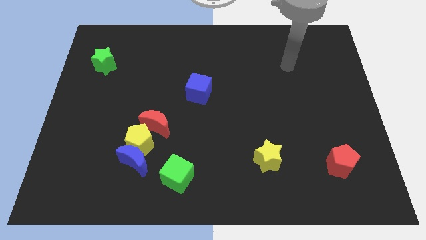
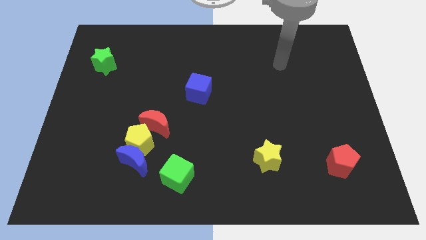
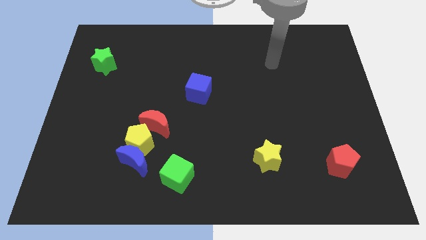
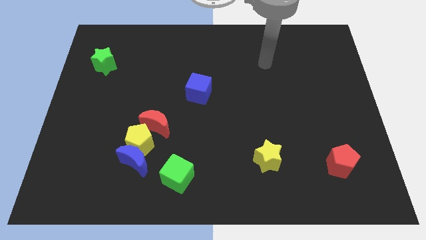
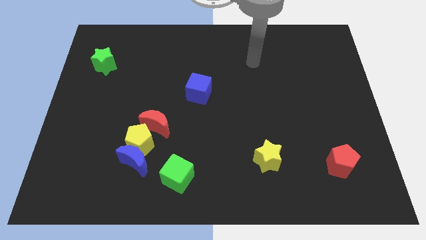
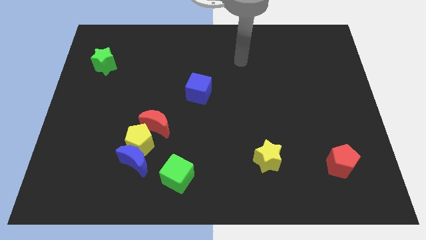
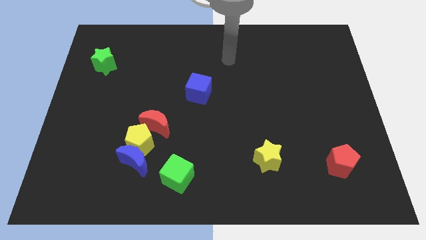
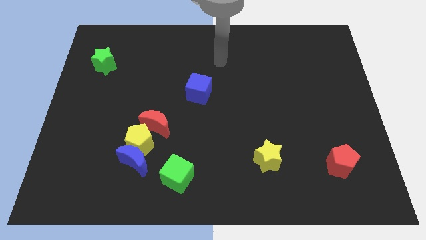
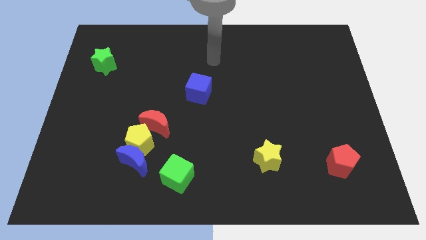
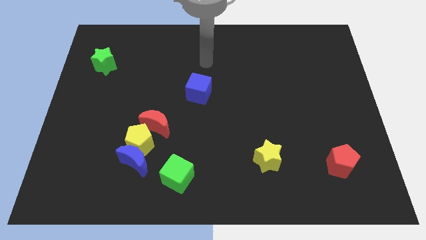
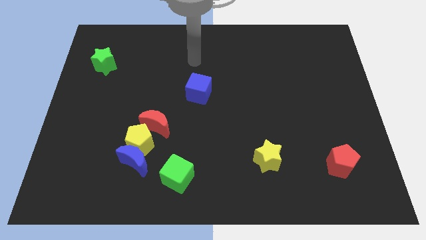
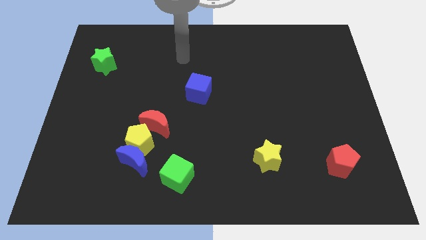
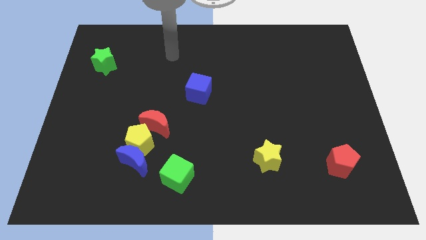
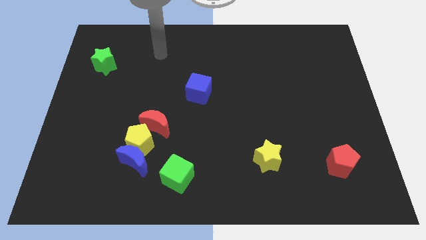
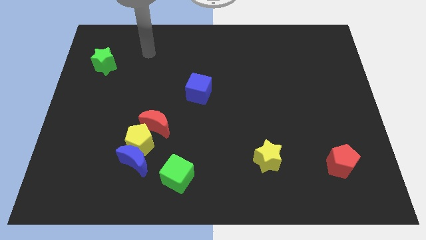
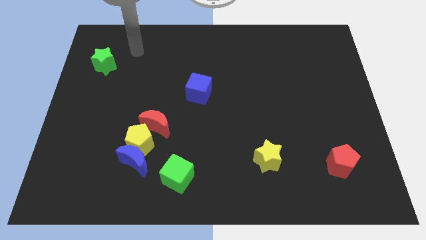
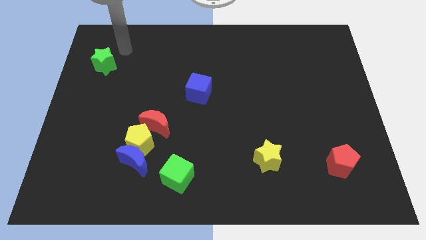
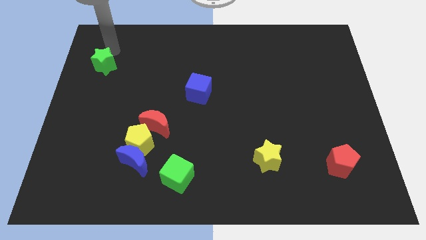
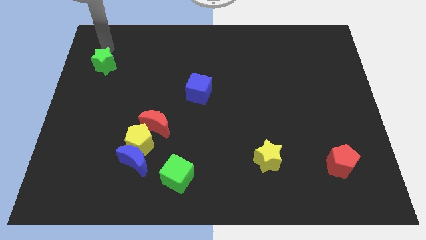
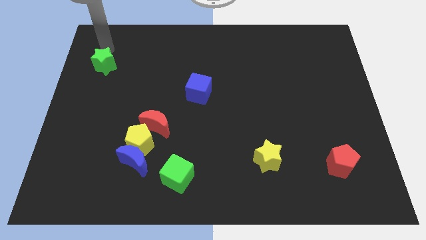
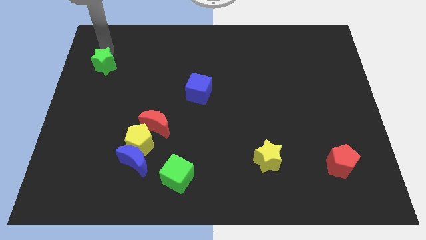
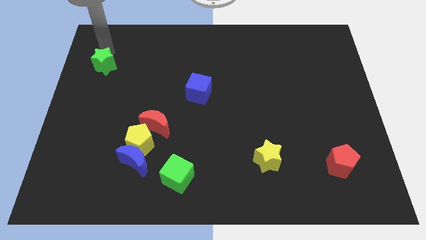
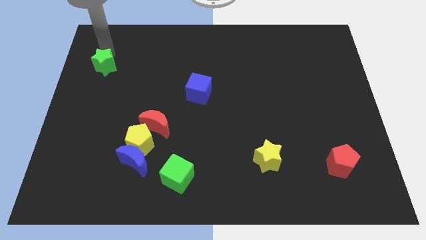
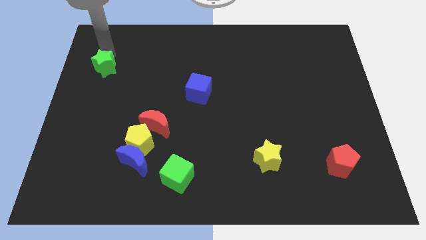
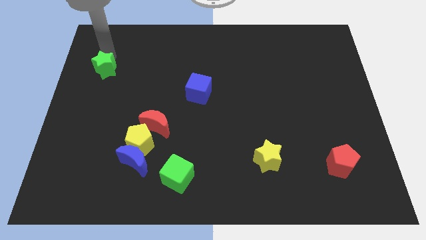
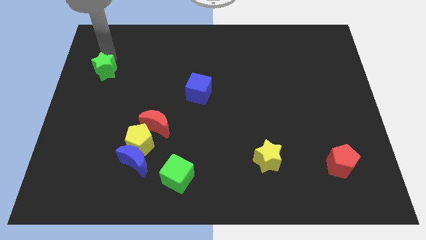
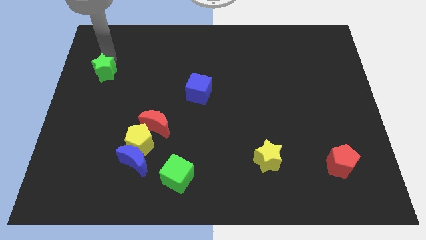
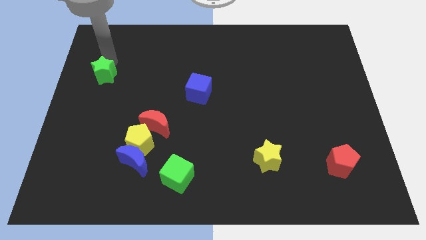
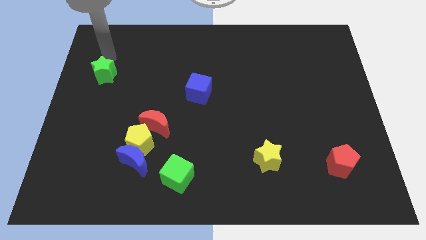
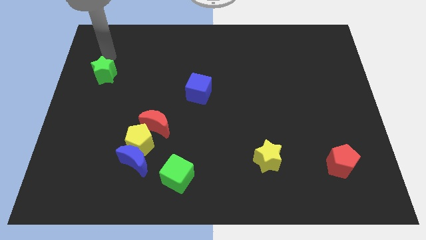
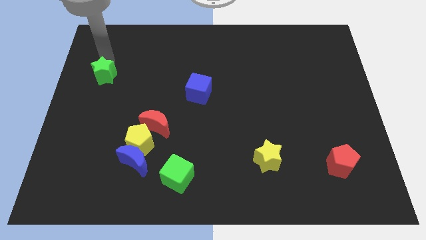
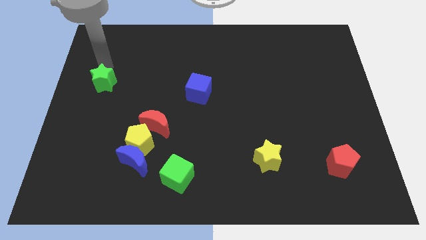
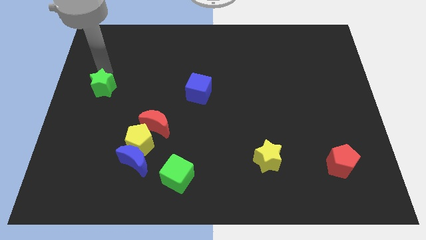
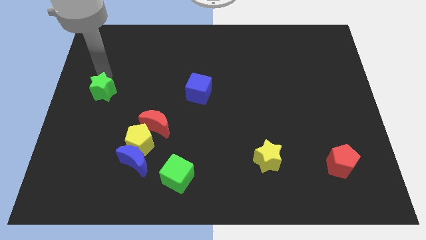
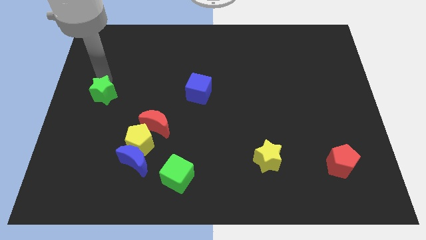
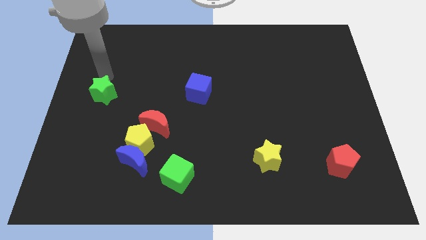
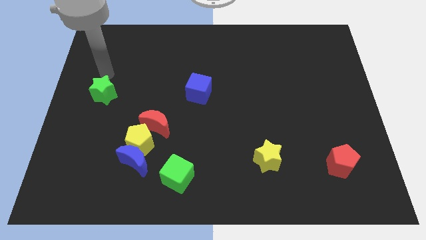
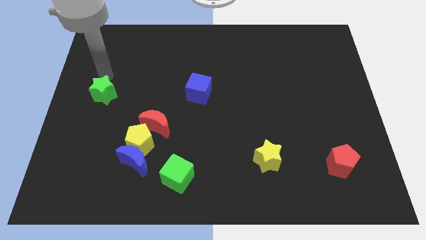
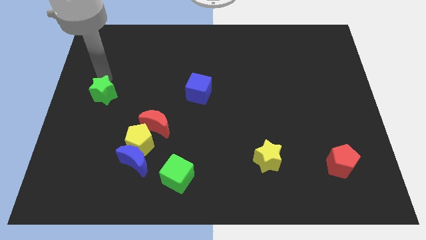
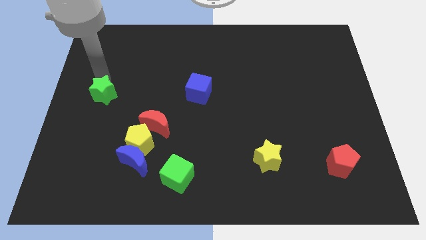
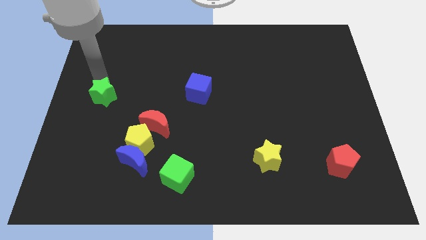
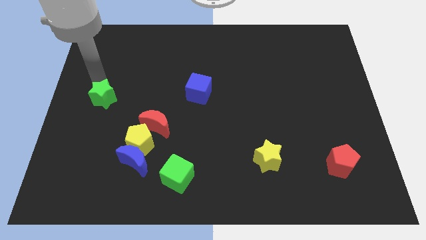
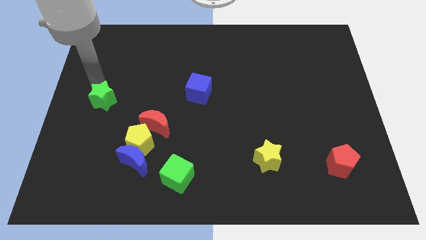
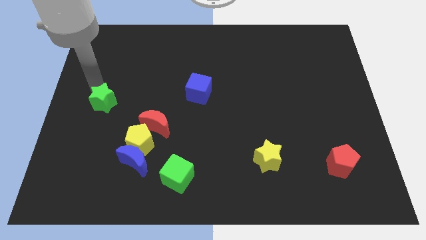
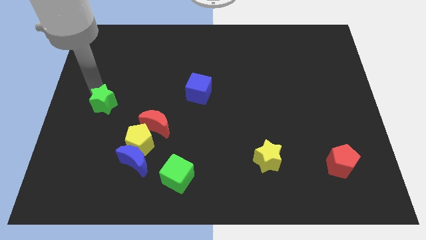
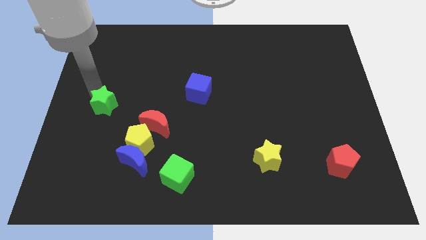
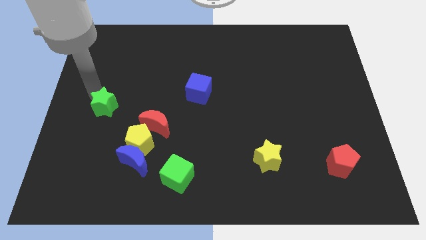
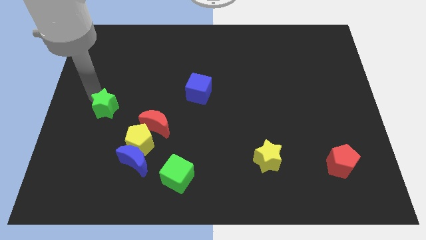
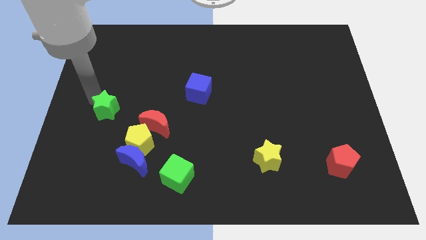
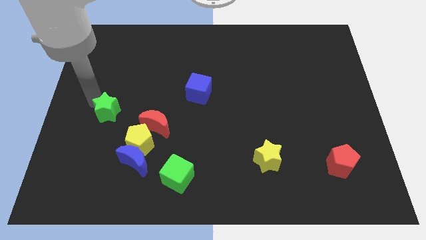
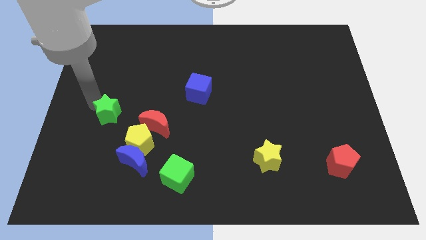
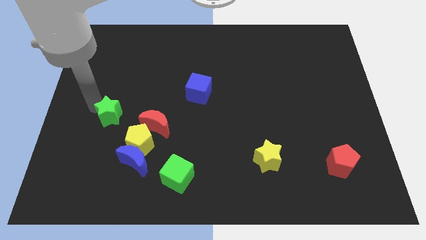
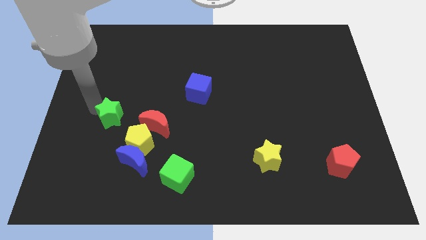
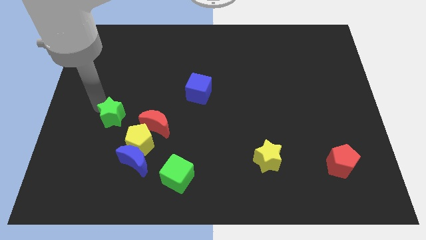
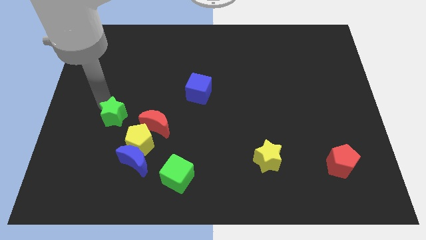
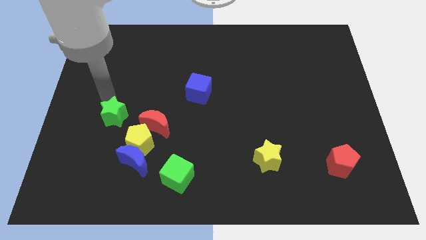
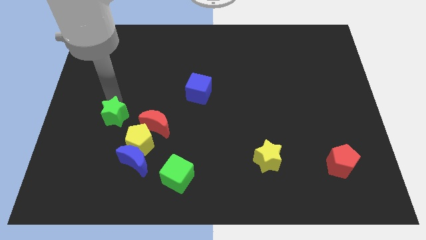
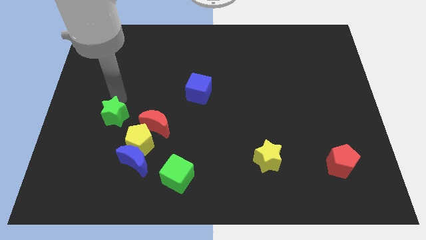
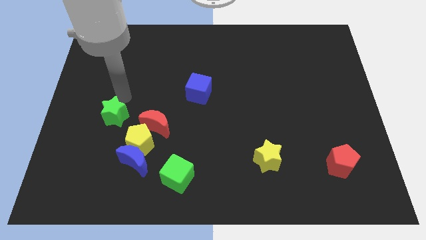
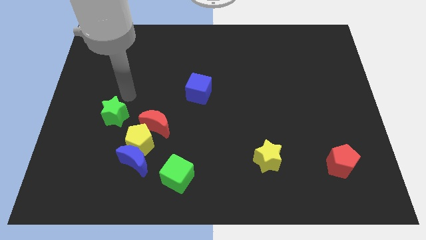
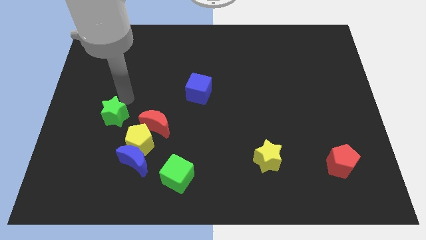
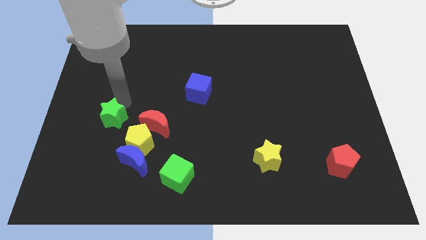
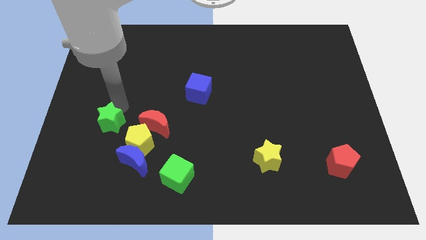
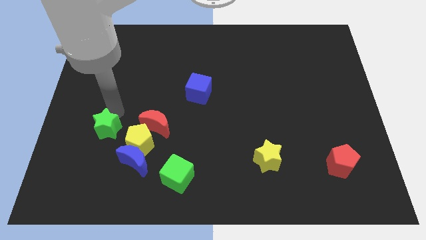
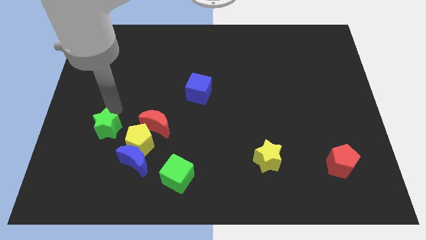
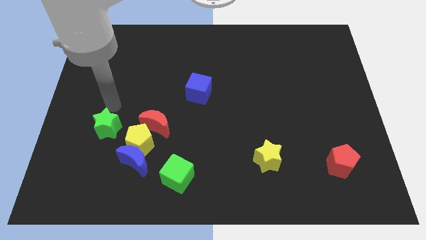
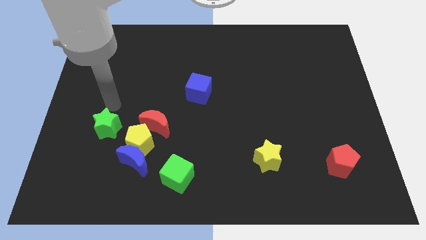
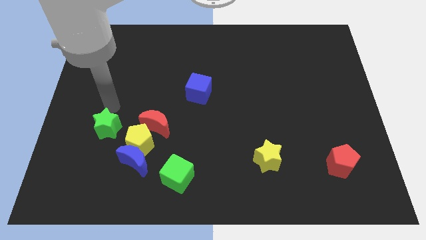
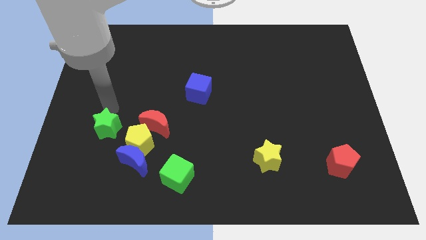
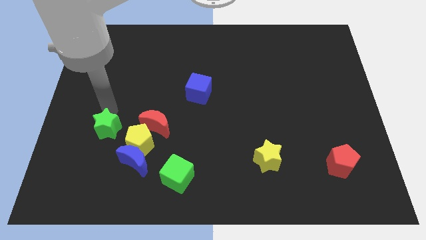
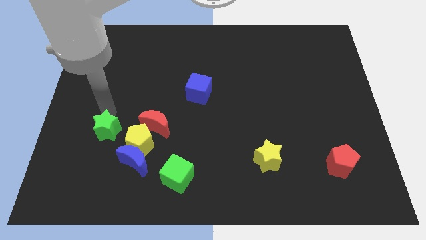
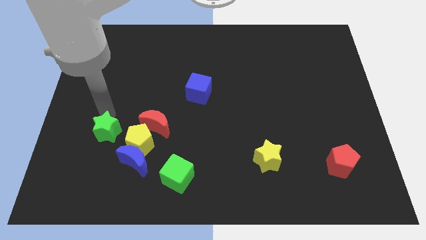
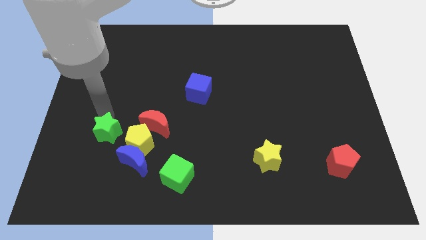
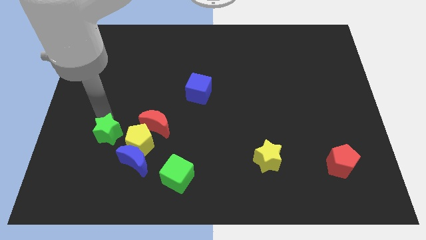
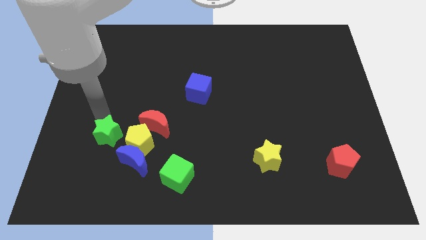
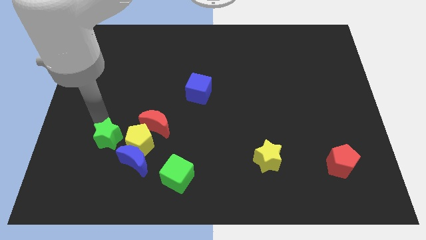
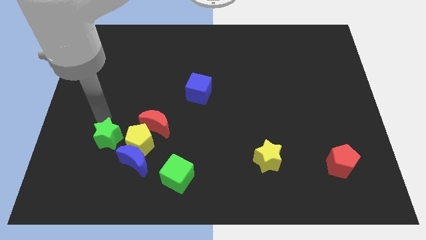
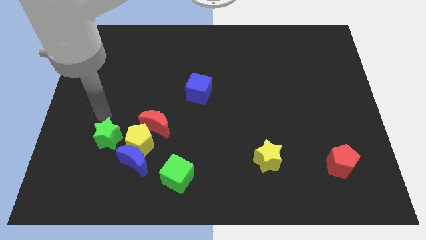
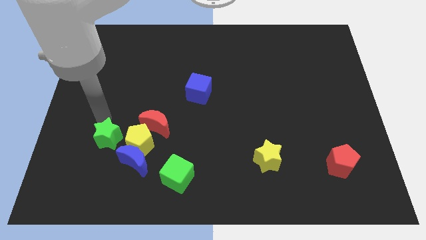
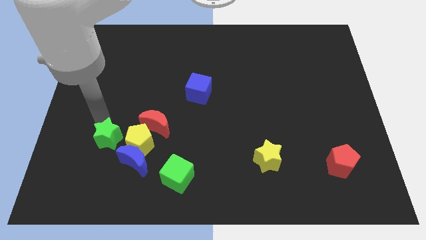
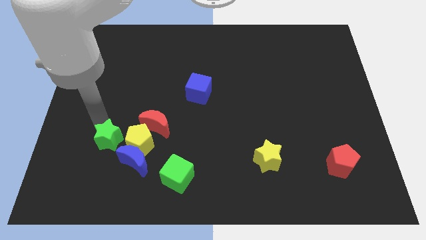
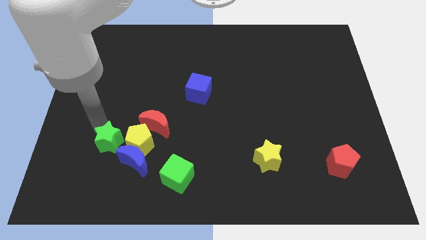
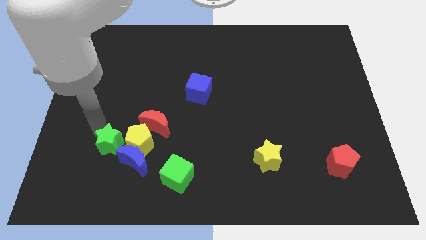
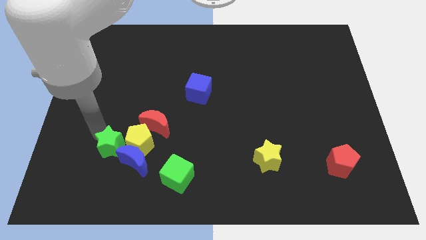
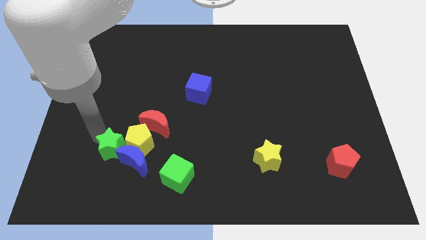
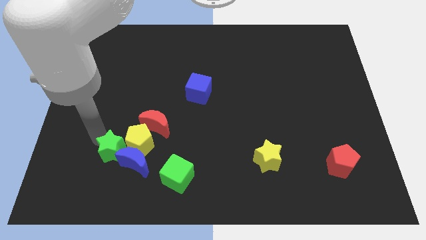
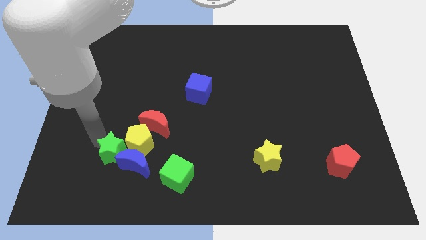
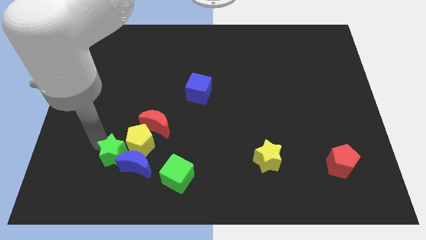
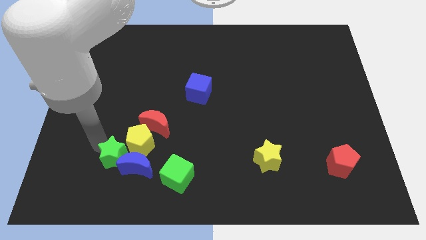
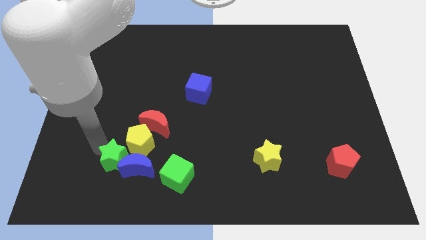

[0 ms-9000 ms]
move the green star just left of the green cube
